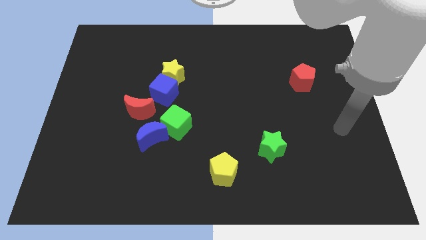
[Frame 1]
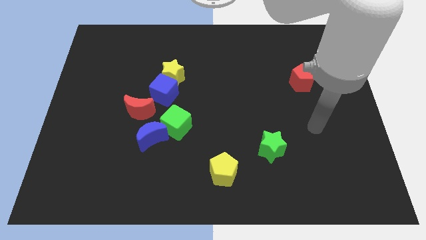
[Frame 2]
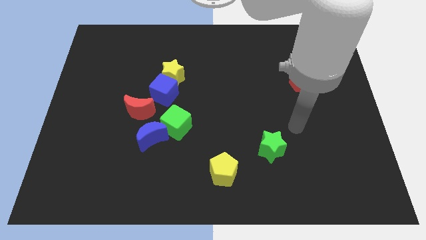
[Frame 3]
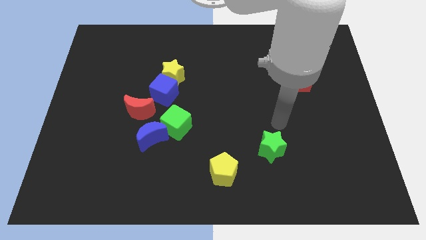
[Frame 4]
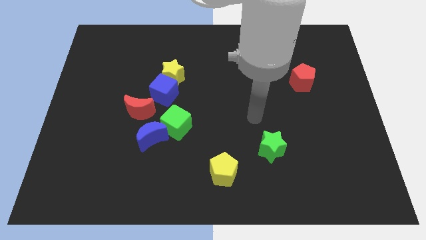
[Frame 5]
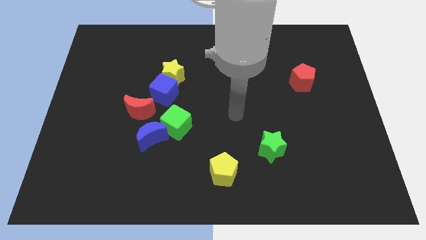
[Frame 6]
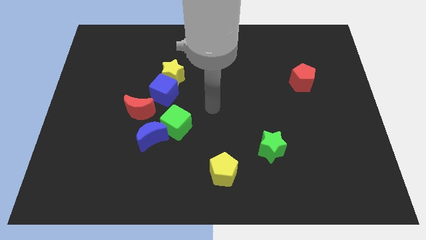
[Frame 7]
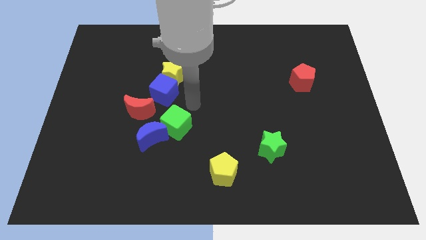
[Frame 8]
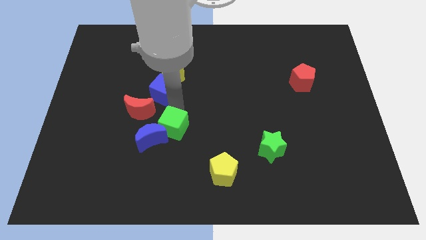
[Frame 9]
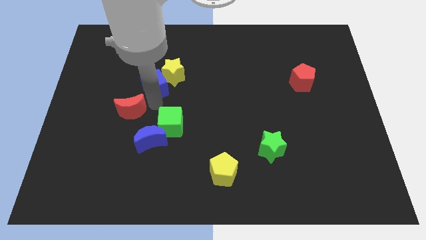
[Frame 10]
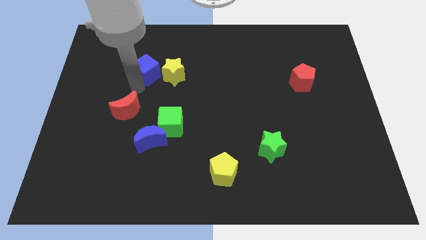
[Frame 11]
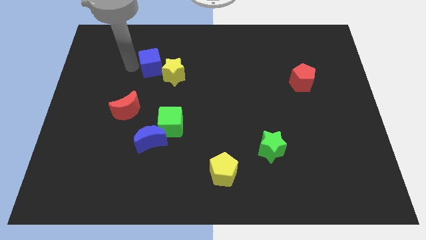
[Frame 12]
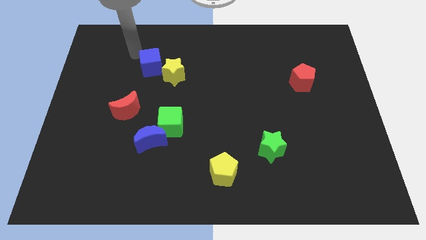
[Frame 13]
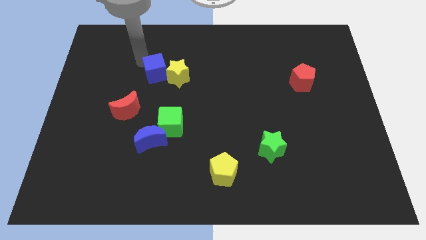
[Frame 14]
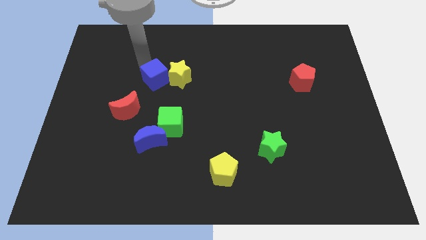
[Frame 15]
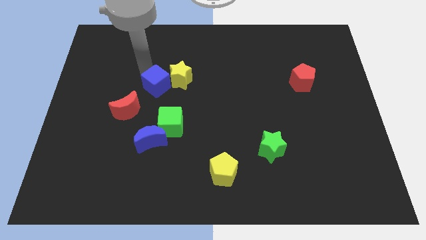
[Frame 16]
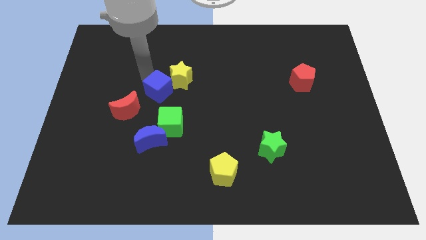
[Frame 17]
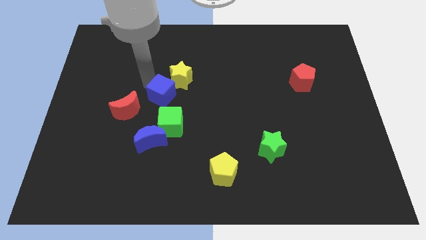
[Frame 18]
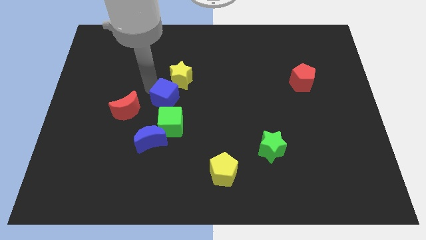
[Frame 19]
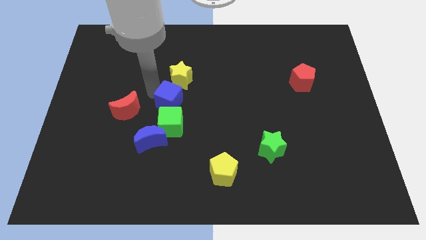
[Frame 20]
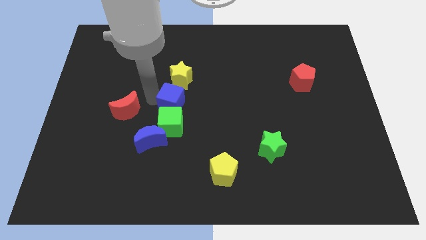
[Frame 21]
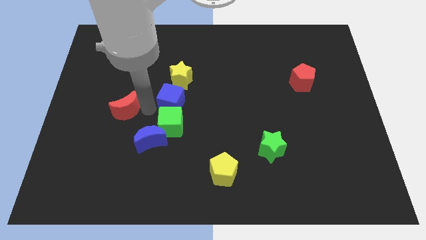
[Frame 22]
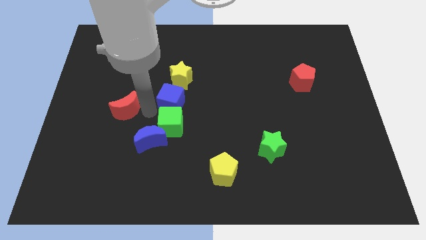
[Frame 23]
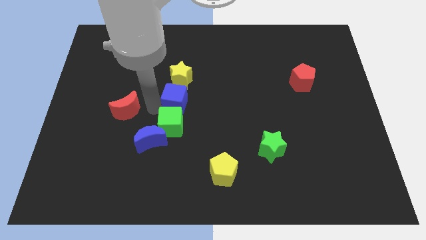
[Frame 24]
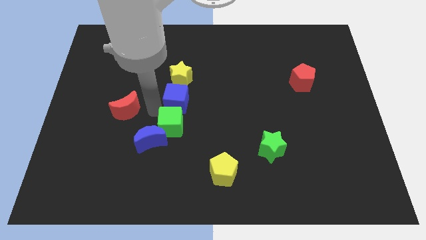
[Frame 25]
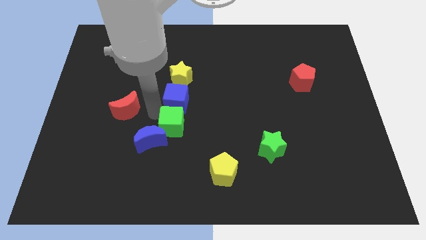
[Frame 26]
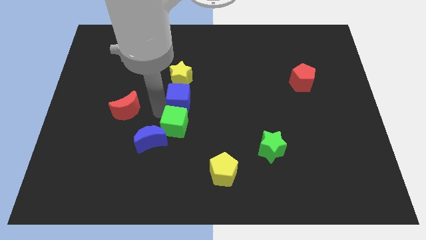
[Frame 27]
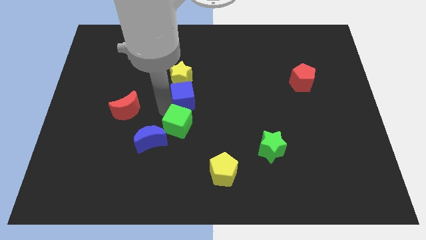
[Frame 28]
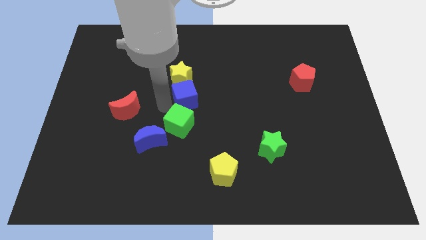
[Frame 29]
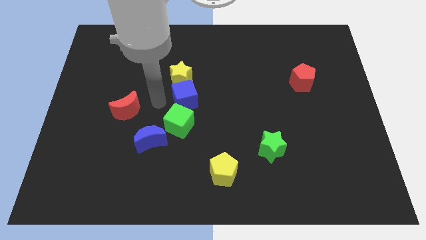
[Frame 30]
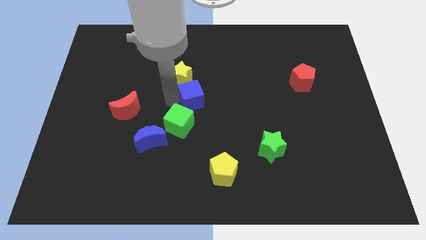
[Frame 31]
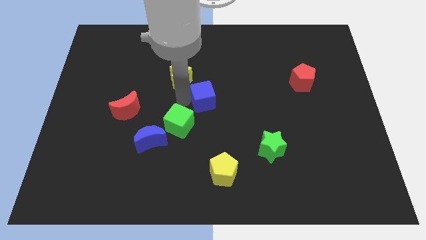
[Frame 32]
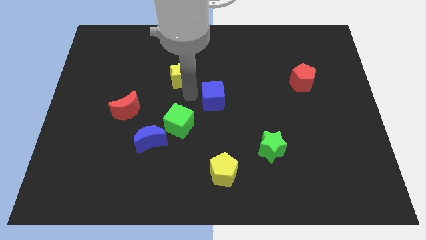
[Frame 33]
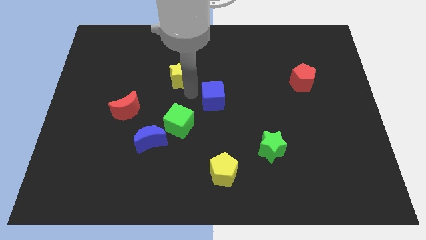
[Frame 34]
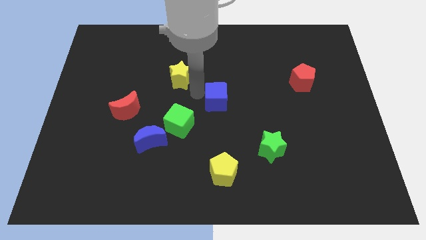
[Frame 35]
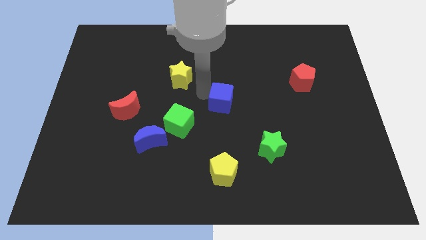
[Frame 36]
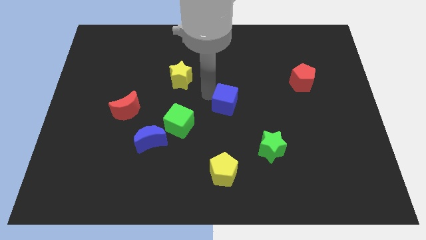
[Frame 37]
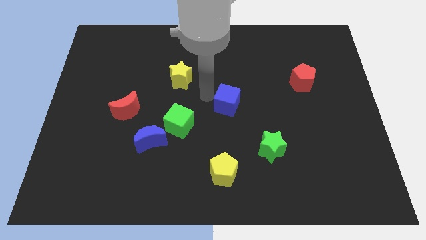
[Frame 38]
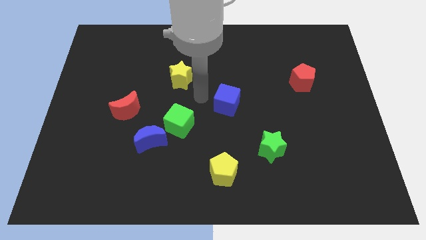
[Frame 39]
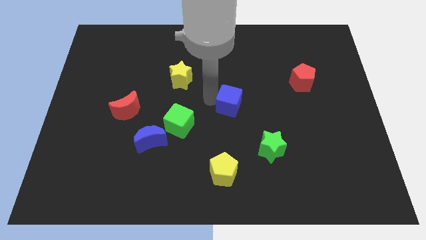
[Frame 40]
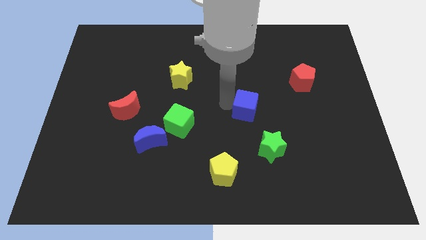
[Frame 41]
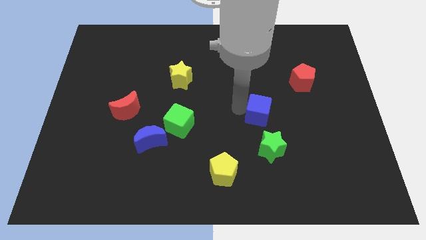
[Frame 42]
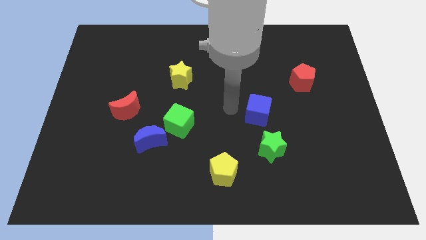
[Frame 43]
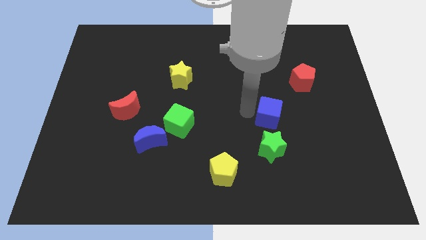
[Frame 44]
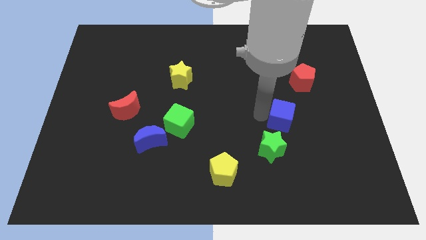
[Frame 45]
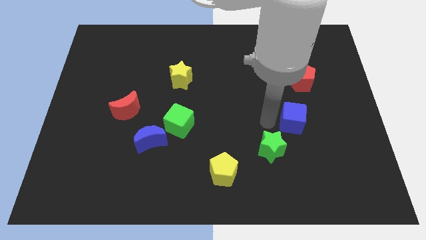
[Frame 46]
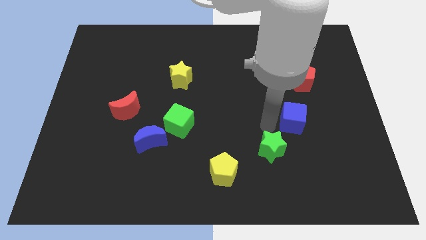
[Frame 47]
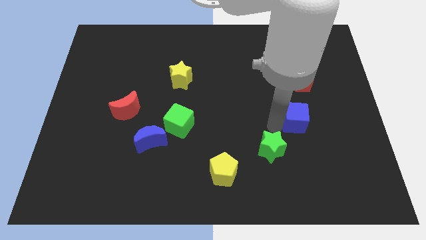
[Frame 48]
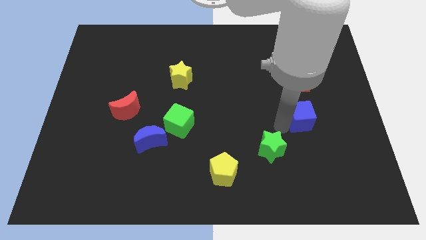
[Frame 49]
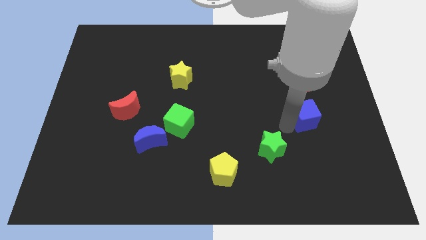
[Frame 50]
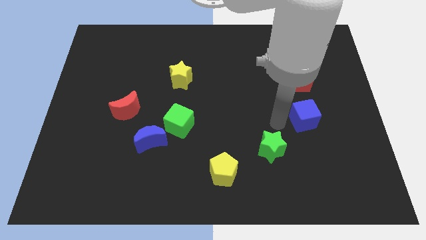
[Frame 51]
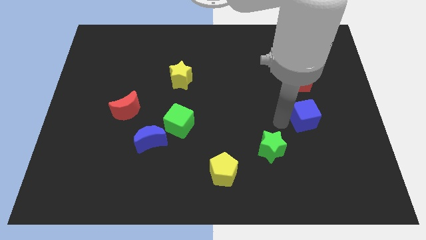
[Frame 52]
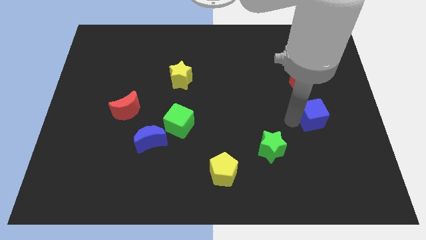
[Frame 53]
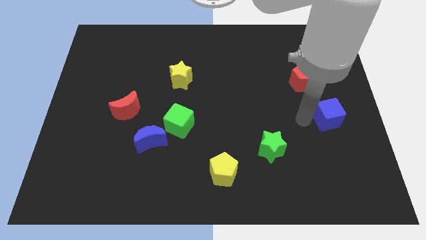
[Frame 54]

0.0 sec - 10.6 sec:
move the blue cube to the right side of the board
